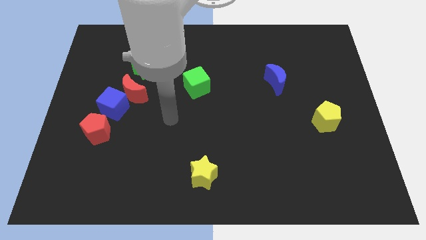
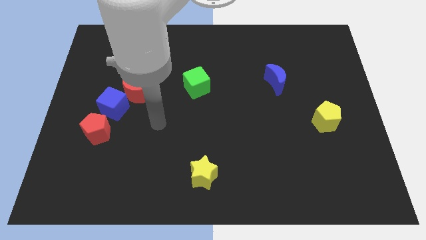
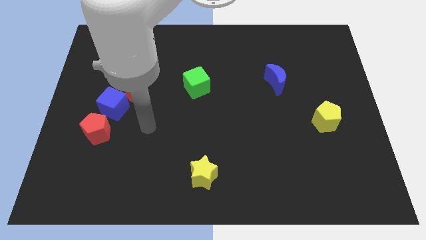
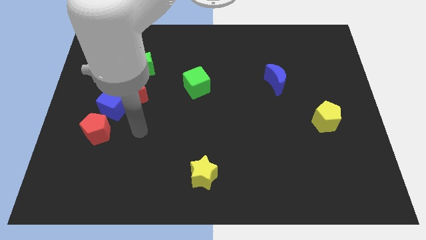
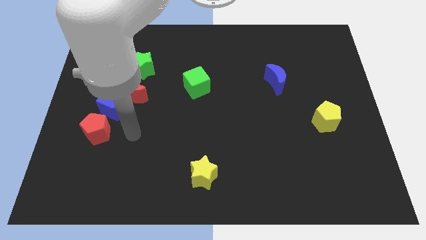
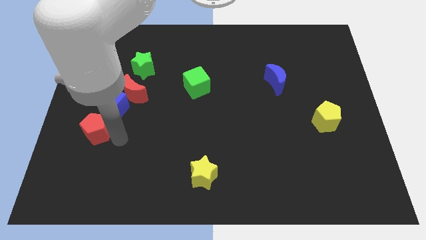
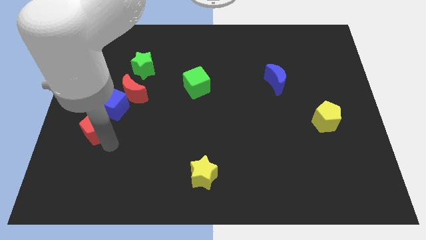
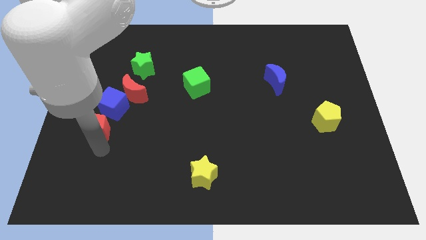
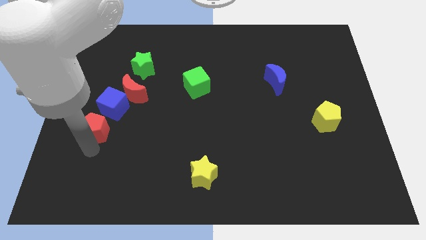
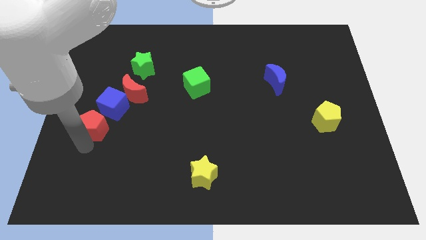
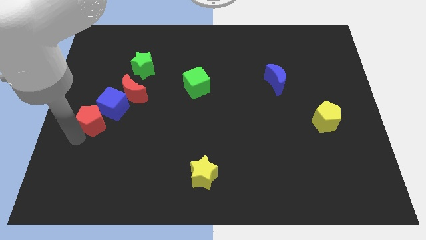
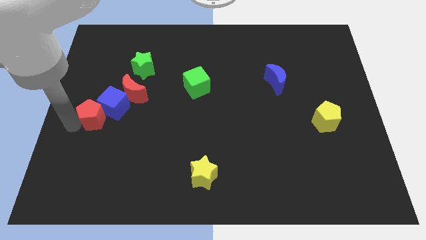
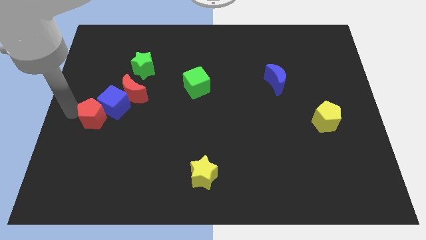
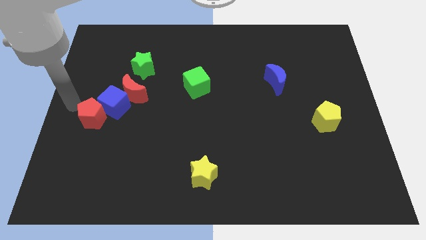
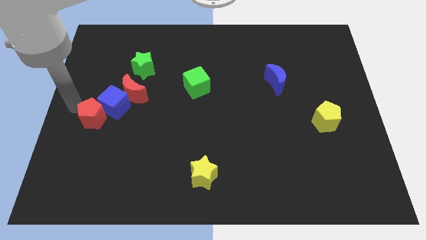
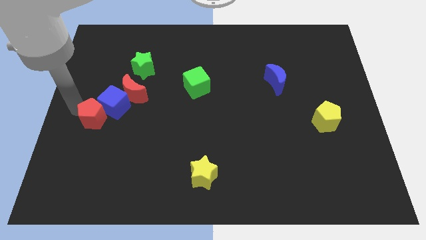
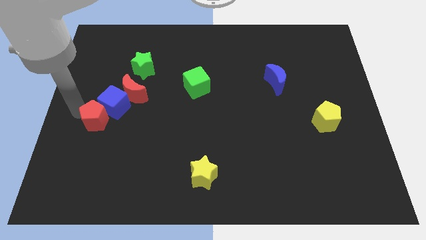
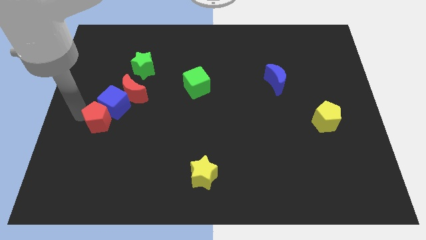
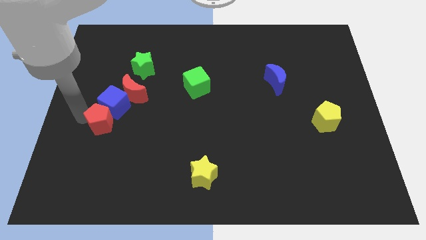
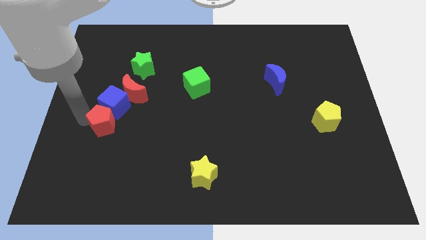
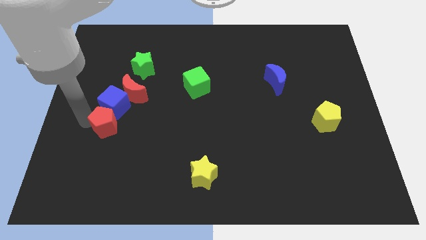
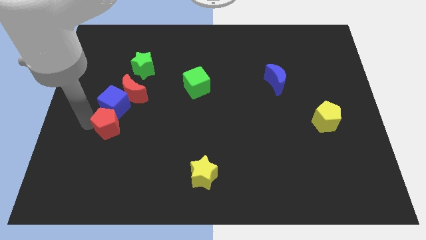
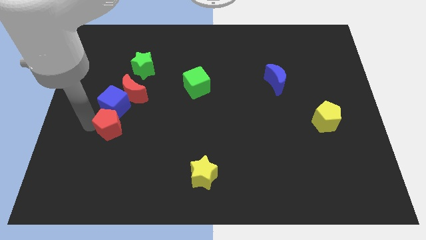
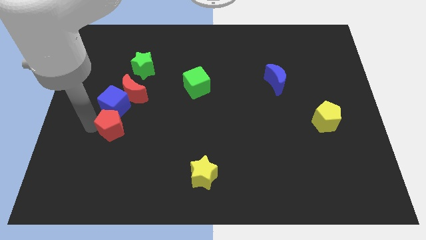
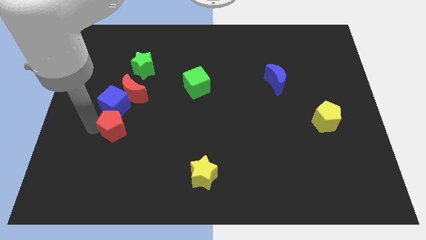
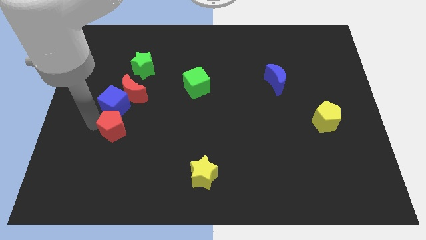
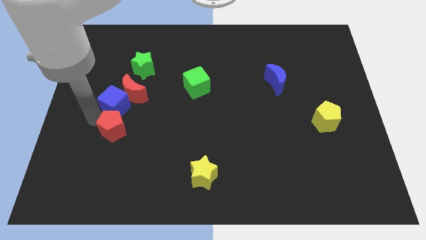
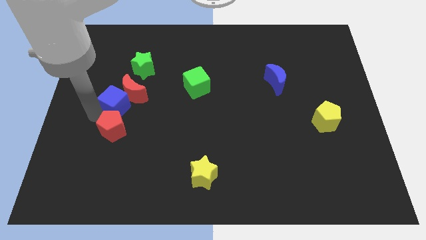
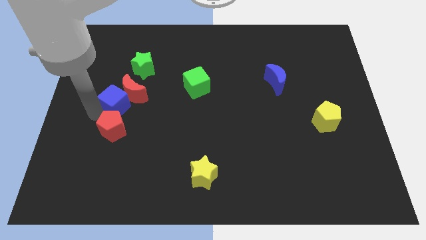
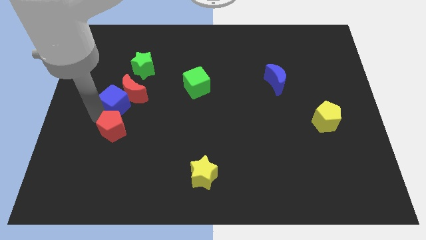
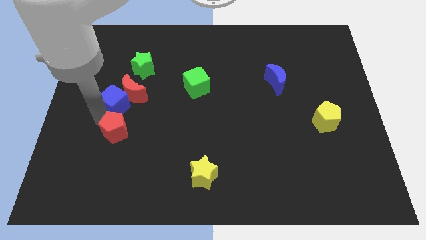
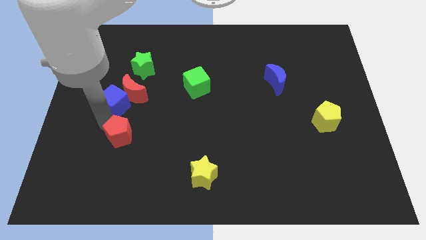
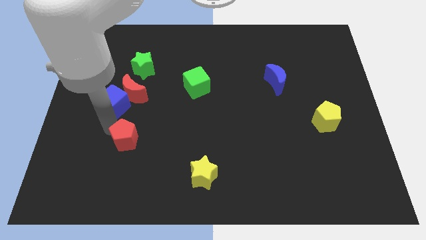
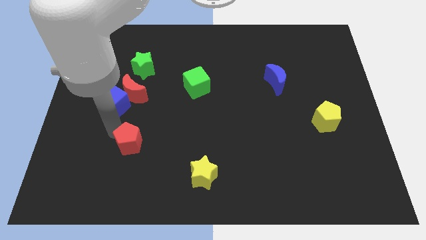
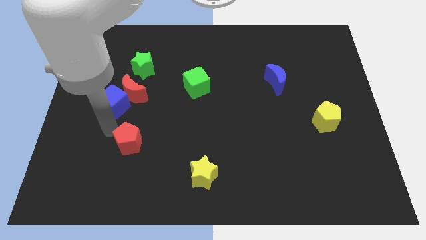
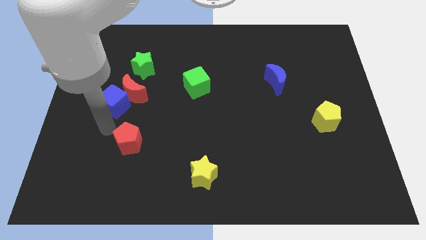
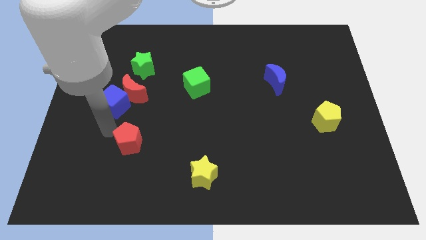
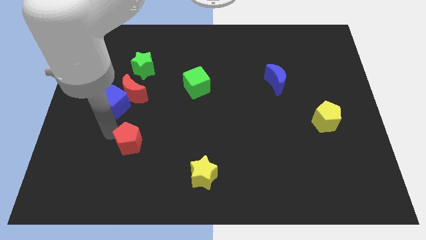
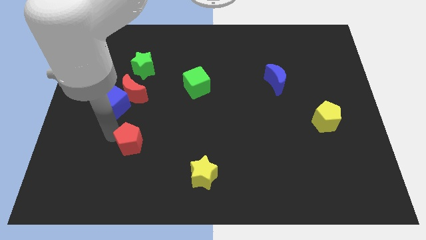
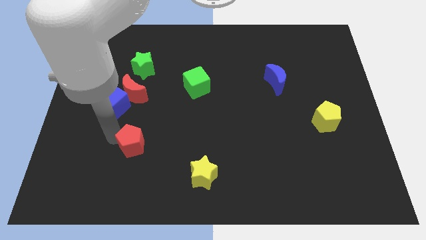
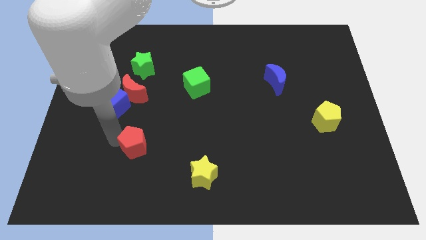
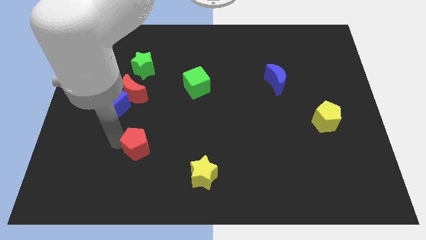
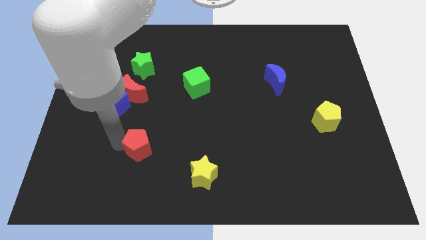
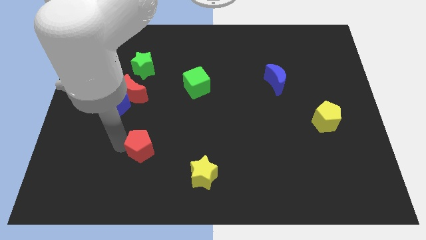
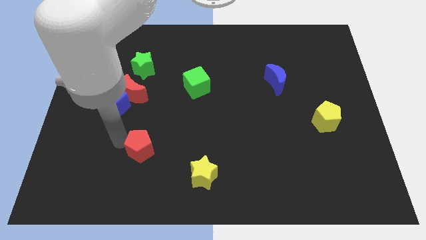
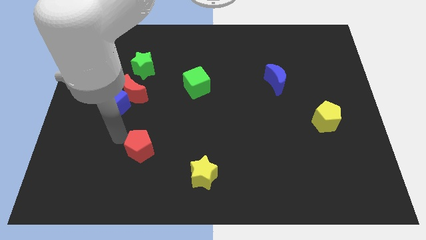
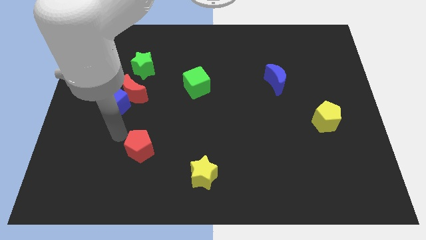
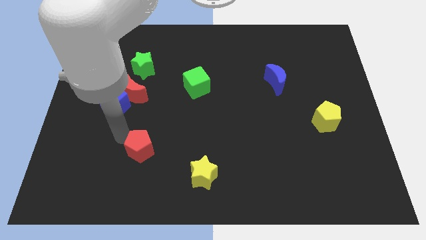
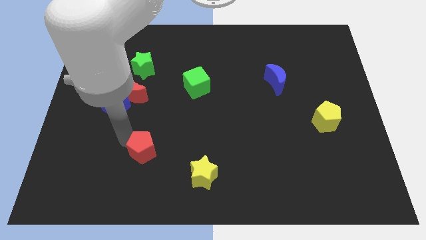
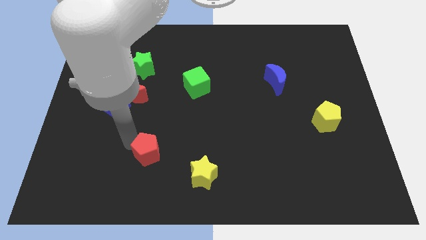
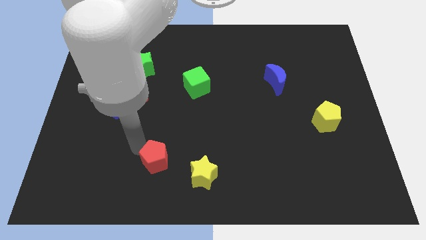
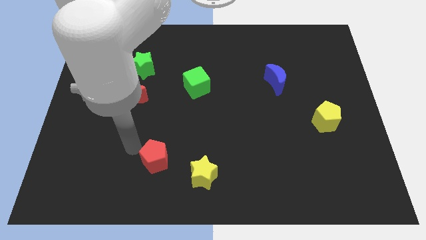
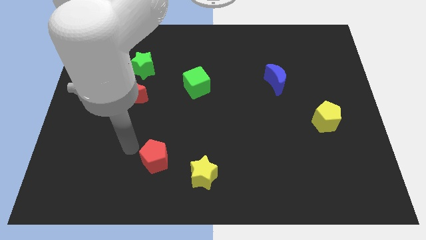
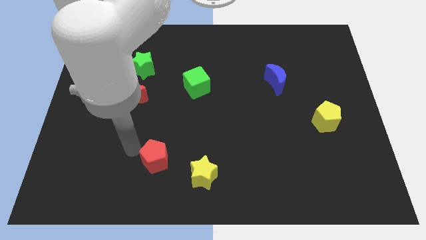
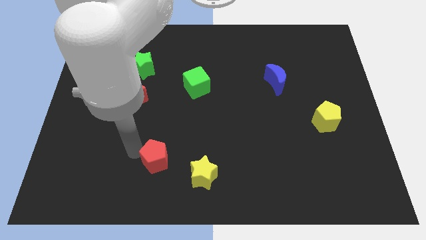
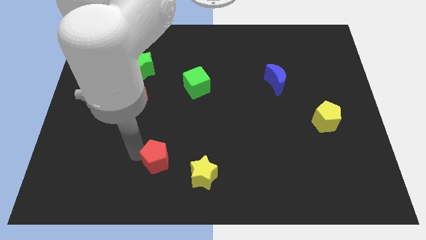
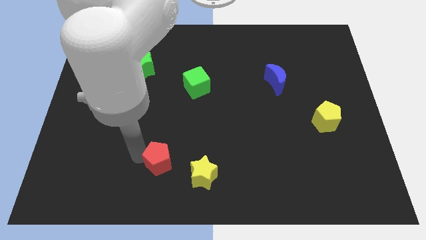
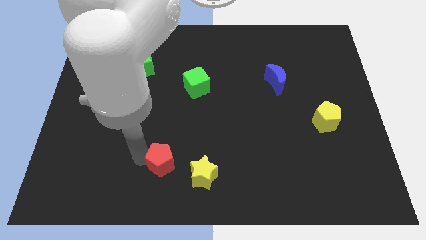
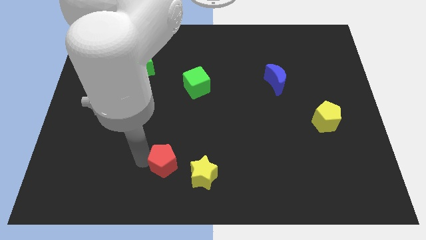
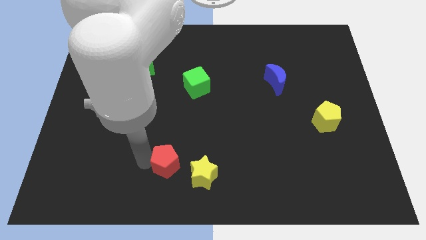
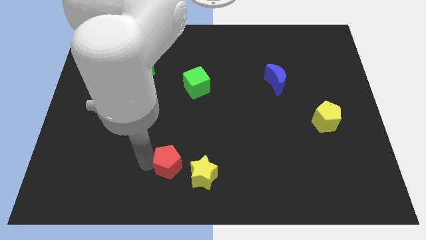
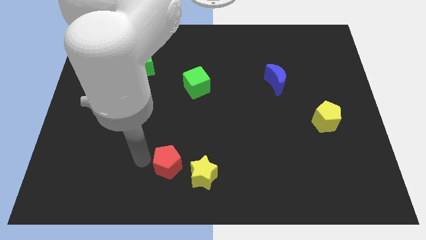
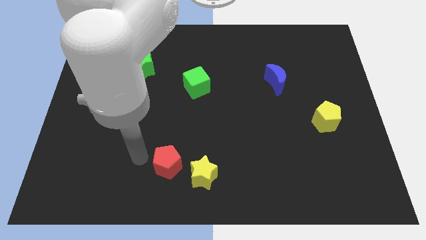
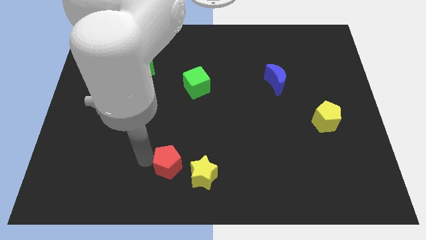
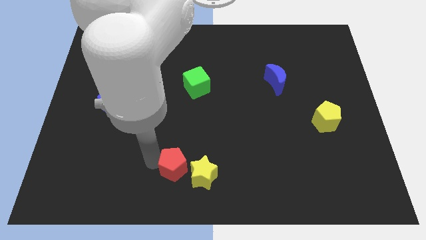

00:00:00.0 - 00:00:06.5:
push the red pentagon towards the yellow star

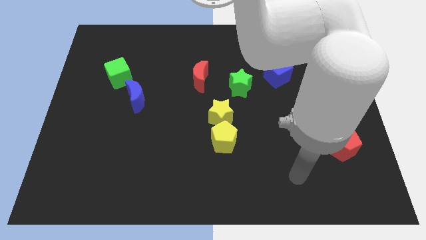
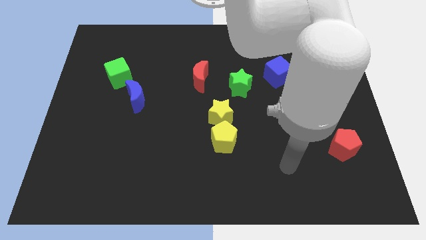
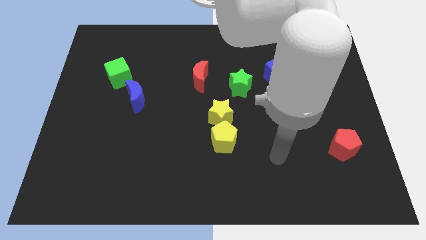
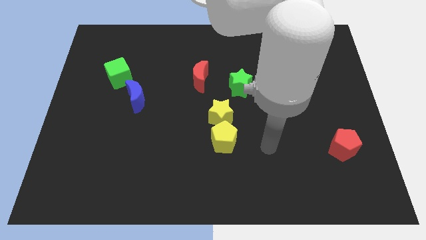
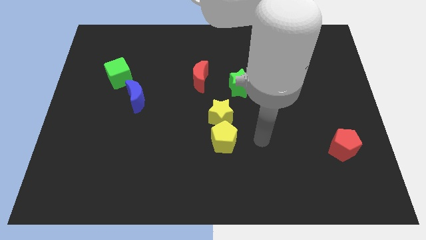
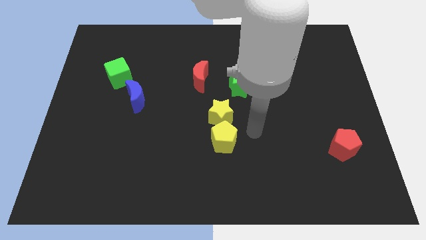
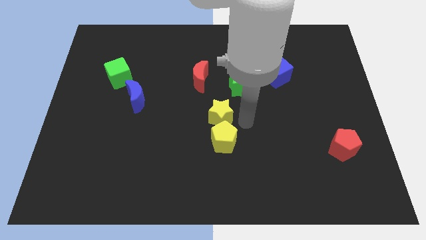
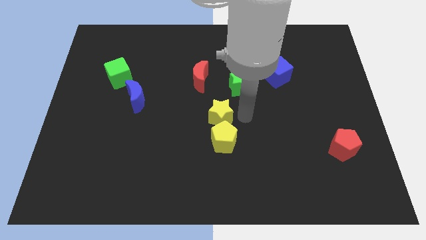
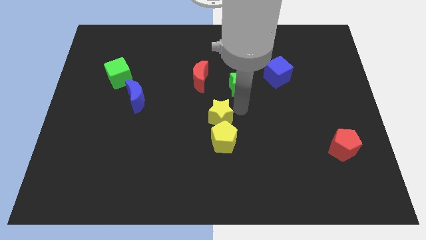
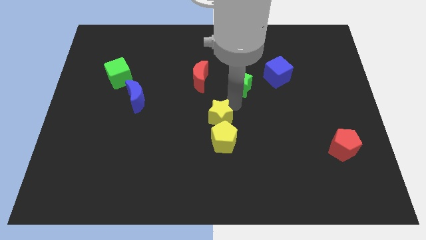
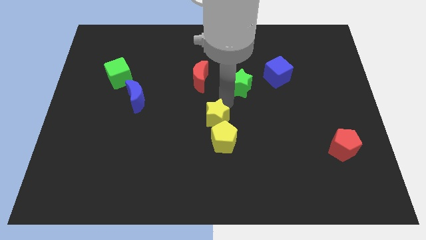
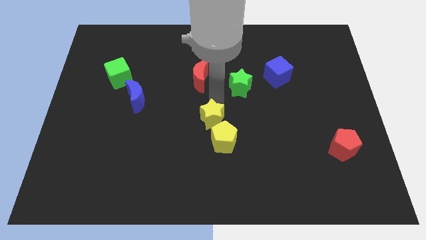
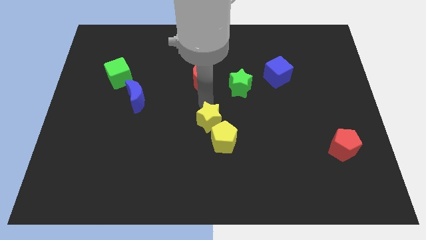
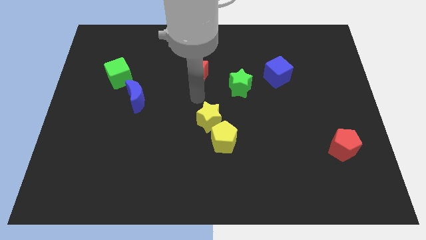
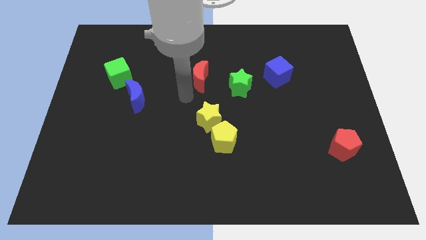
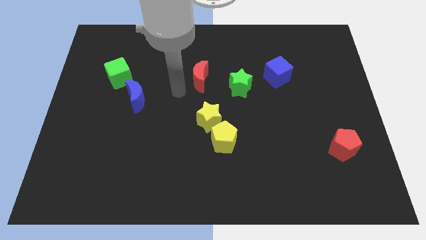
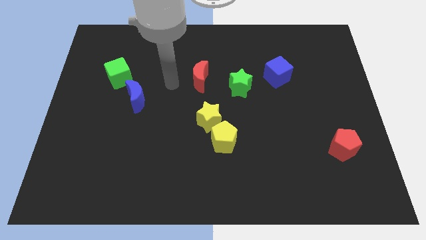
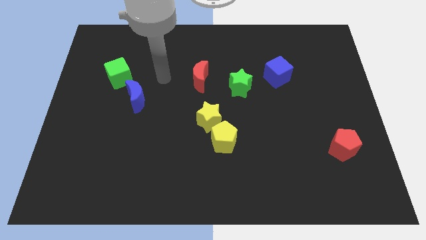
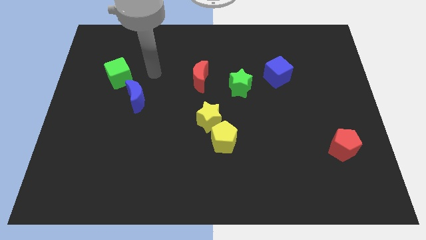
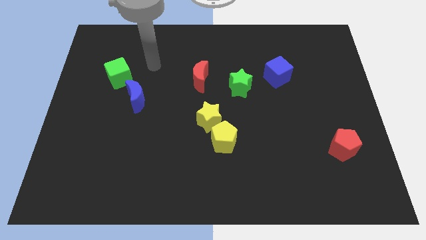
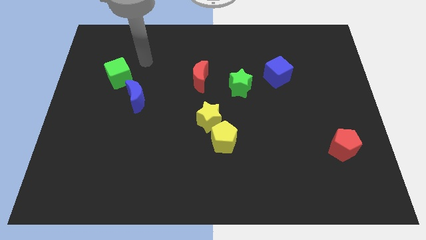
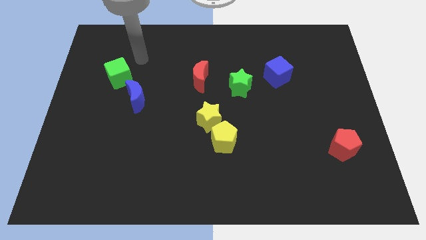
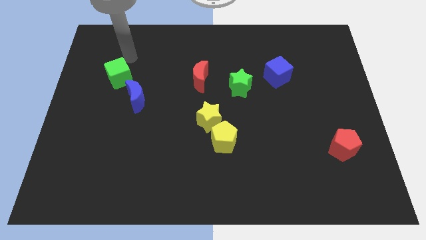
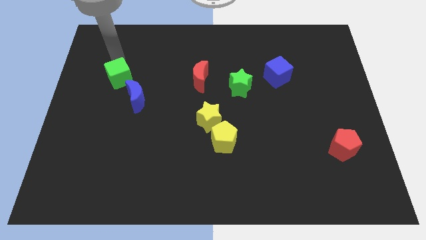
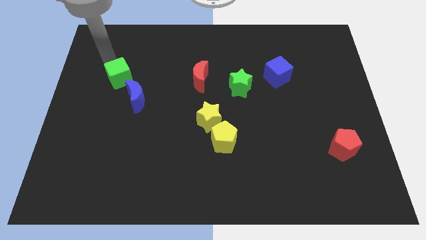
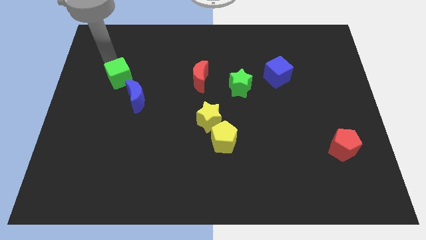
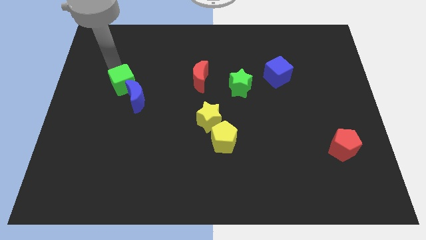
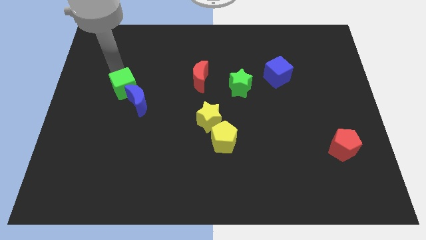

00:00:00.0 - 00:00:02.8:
push the green cube next to the blue moon
